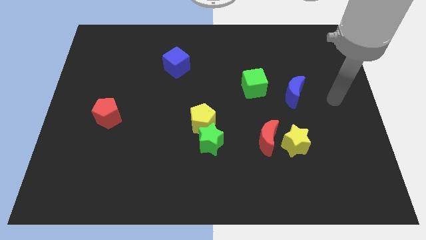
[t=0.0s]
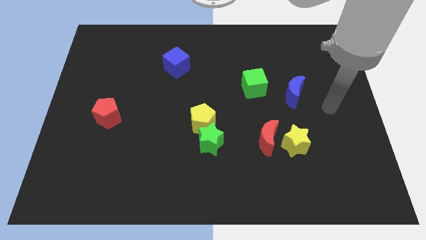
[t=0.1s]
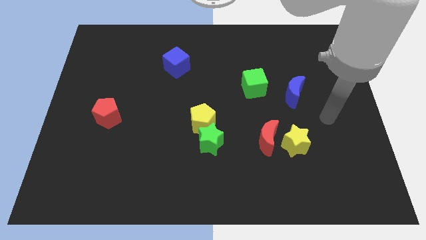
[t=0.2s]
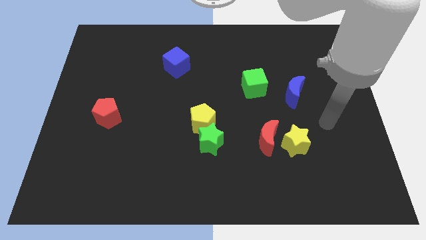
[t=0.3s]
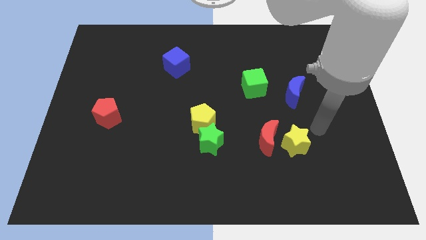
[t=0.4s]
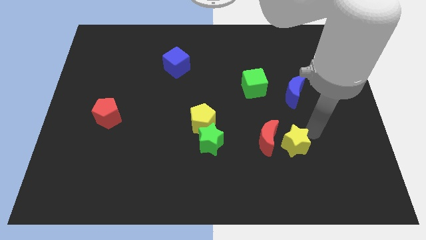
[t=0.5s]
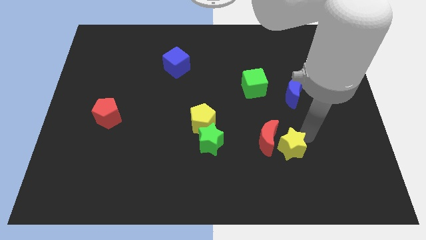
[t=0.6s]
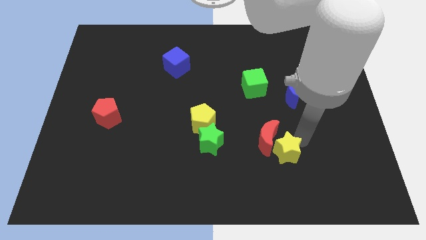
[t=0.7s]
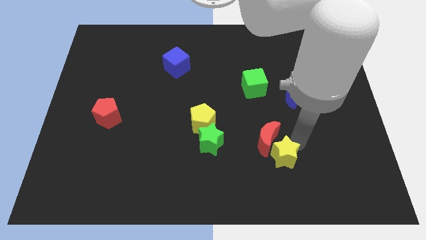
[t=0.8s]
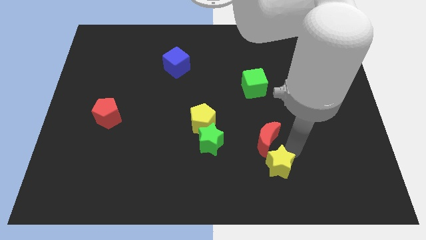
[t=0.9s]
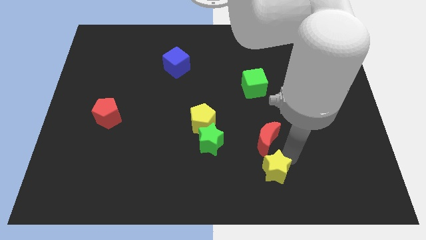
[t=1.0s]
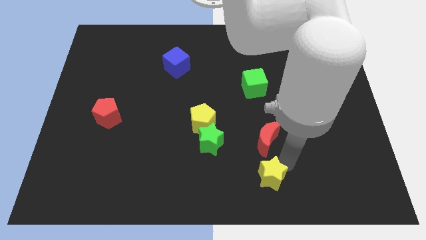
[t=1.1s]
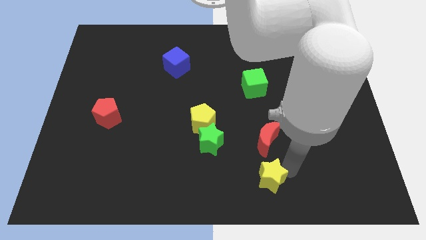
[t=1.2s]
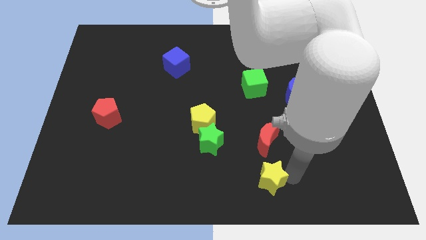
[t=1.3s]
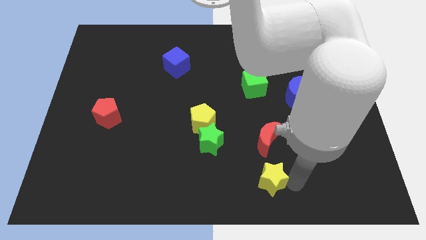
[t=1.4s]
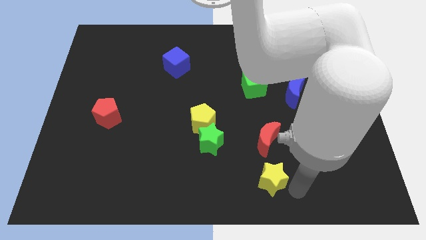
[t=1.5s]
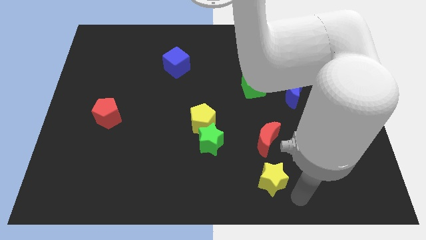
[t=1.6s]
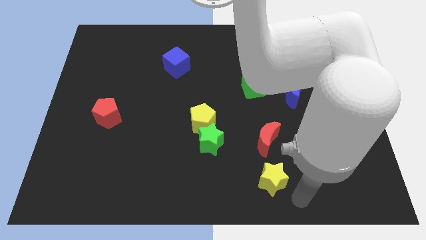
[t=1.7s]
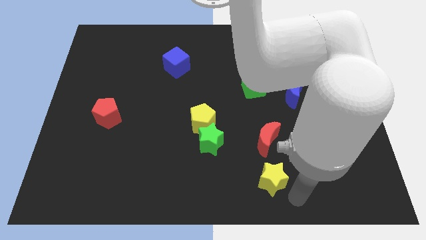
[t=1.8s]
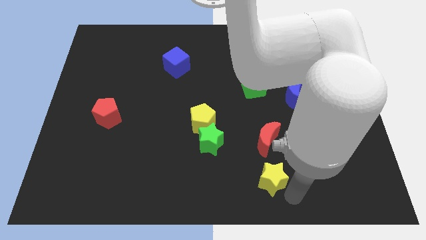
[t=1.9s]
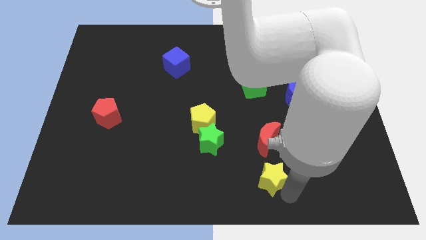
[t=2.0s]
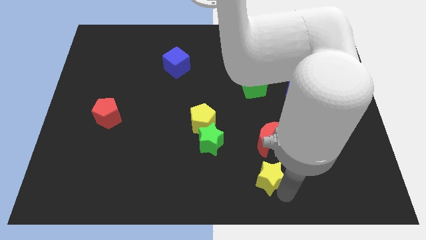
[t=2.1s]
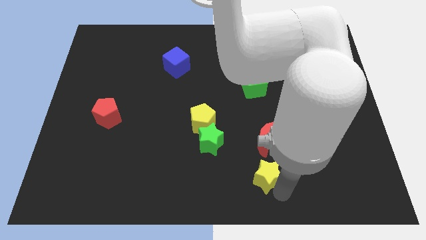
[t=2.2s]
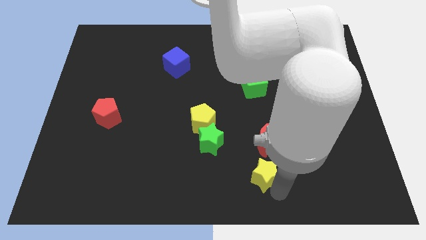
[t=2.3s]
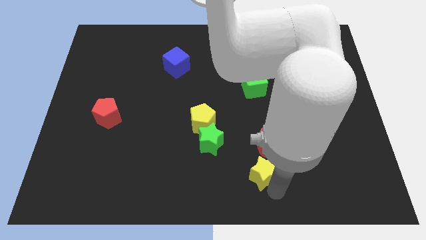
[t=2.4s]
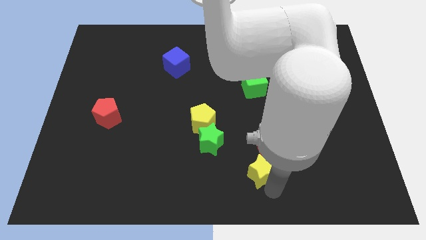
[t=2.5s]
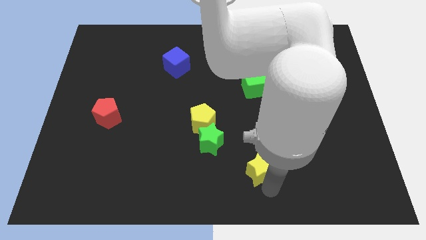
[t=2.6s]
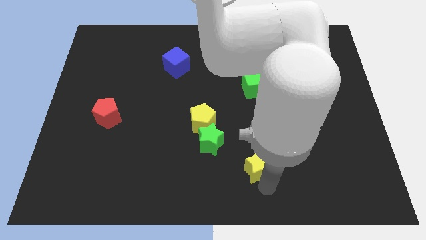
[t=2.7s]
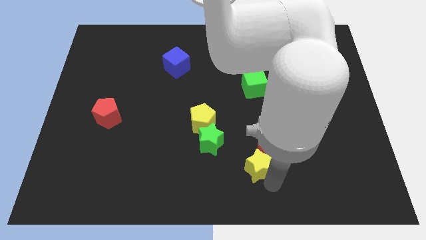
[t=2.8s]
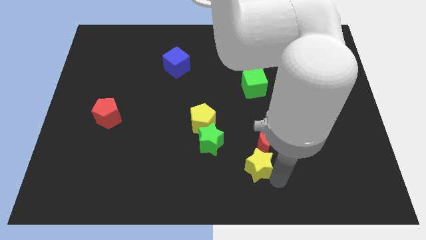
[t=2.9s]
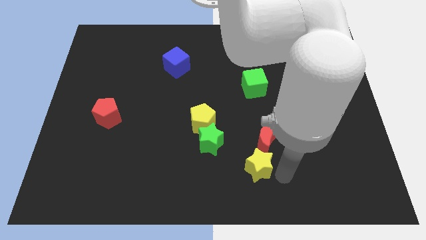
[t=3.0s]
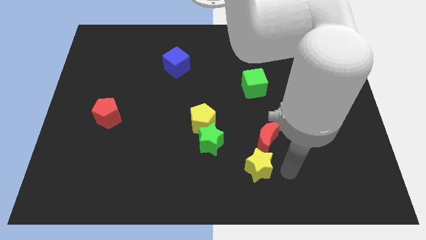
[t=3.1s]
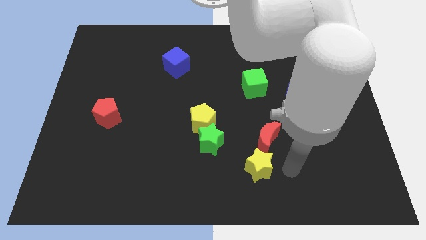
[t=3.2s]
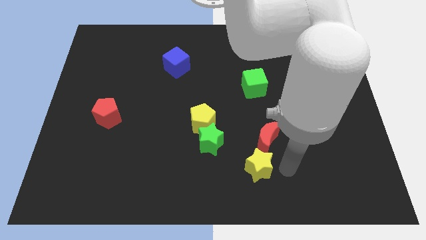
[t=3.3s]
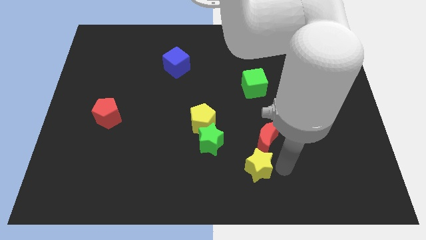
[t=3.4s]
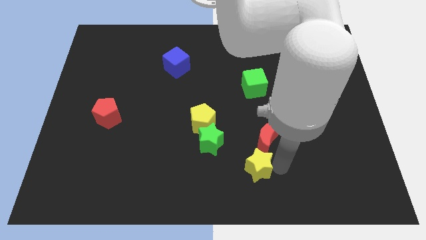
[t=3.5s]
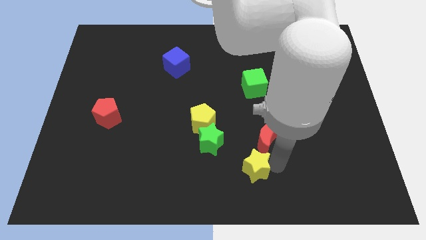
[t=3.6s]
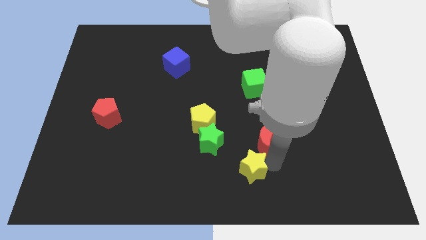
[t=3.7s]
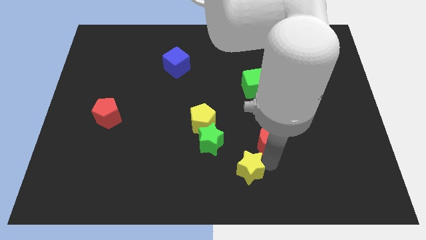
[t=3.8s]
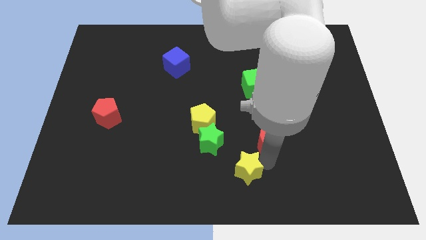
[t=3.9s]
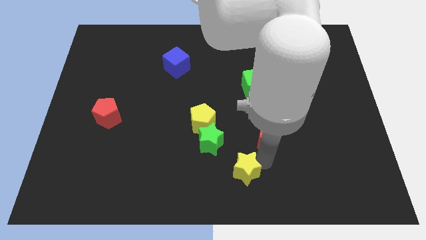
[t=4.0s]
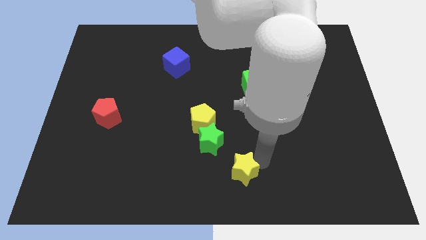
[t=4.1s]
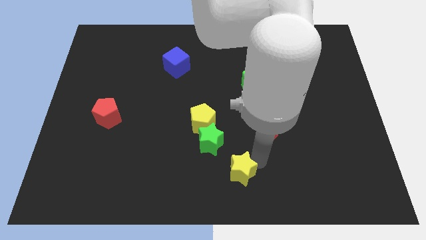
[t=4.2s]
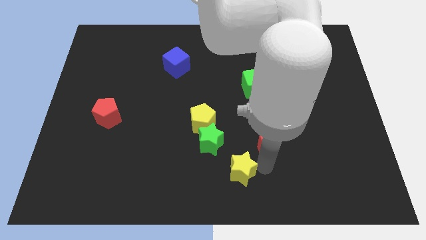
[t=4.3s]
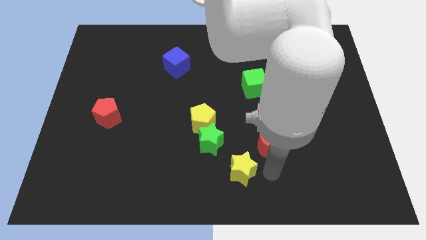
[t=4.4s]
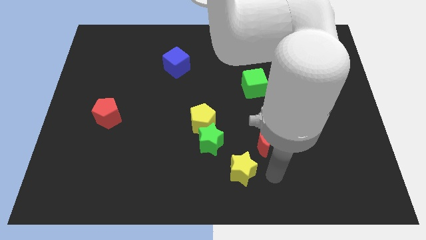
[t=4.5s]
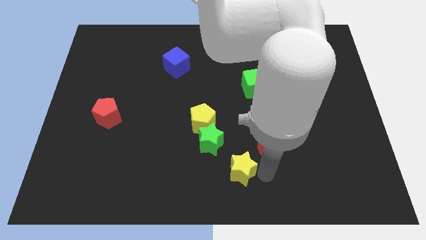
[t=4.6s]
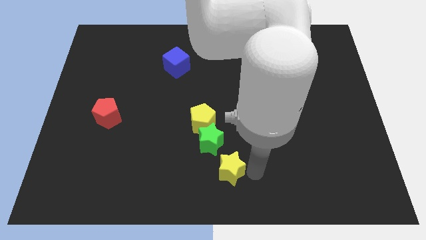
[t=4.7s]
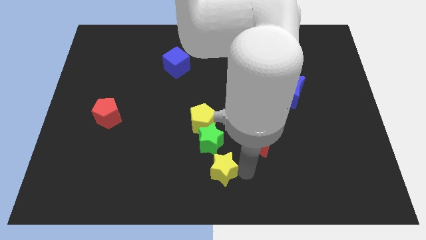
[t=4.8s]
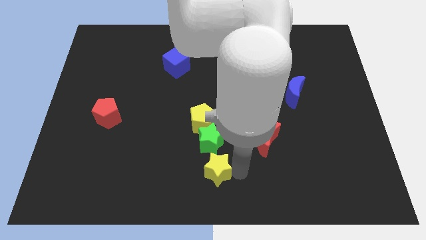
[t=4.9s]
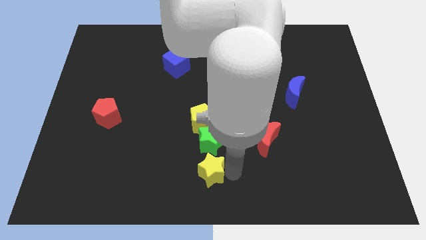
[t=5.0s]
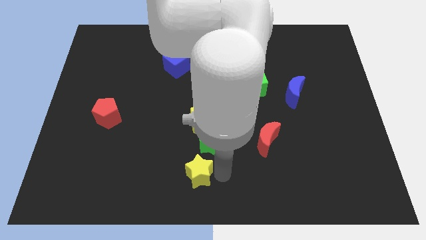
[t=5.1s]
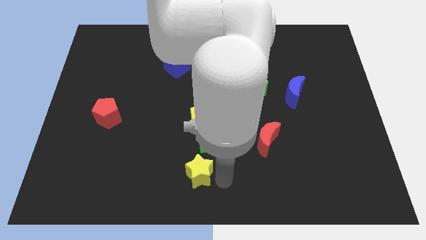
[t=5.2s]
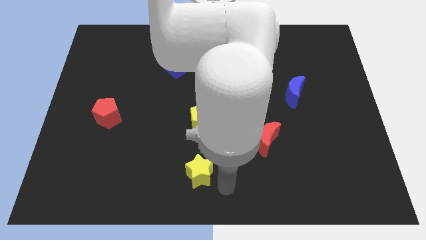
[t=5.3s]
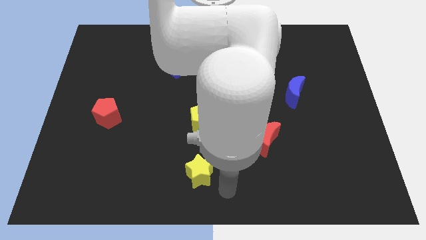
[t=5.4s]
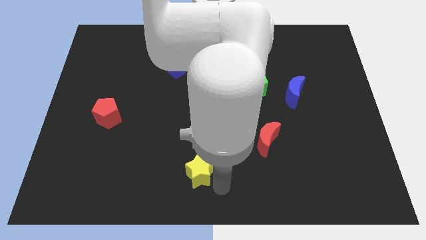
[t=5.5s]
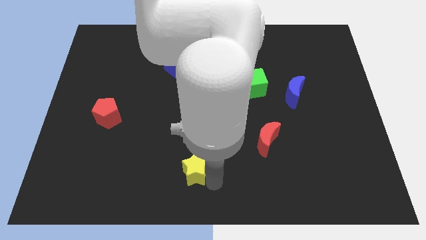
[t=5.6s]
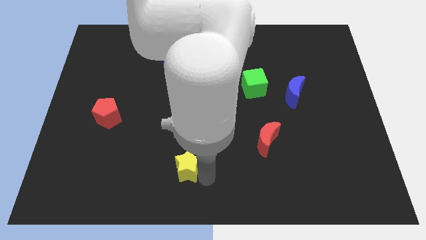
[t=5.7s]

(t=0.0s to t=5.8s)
slide the yellow star left

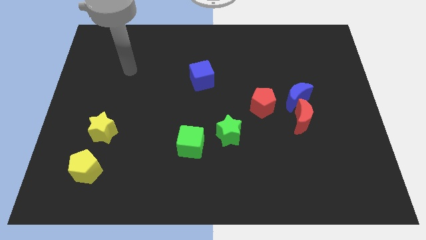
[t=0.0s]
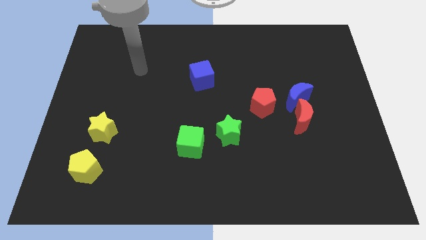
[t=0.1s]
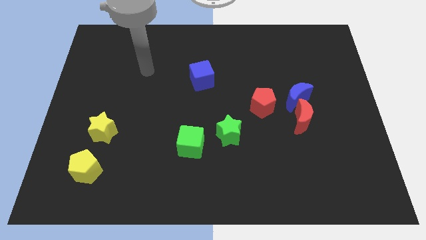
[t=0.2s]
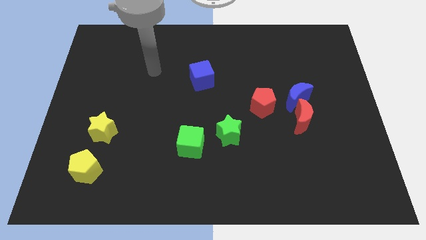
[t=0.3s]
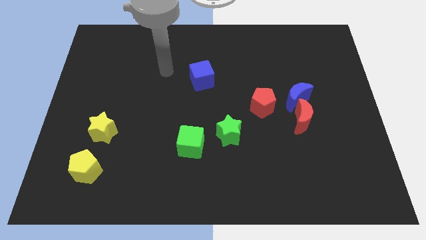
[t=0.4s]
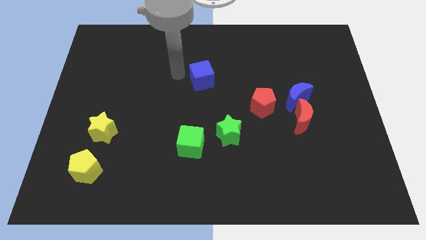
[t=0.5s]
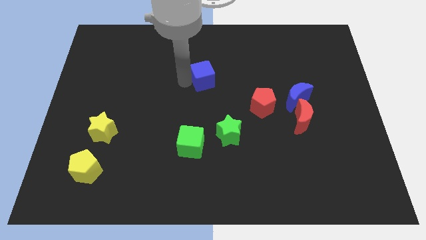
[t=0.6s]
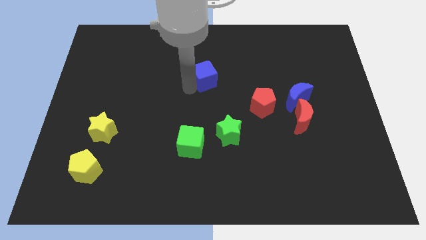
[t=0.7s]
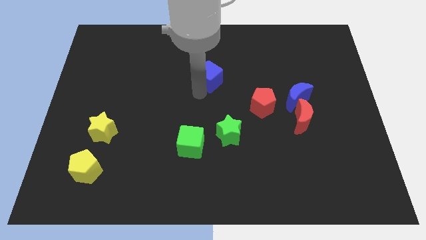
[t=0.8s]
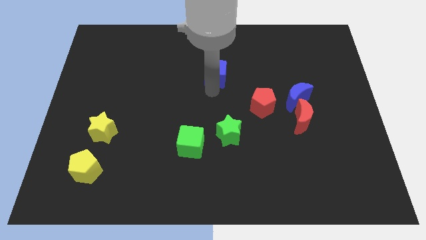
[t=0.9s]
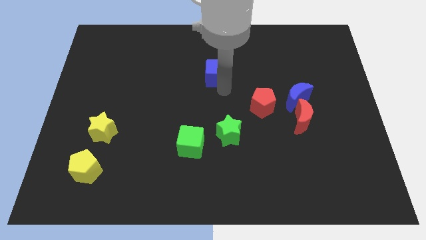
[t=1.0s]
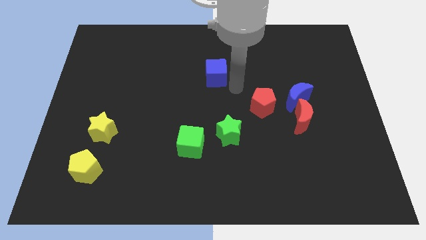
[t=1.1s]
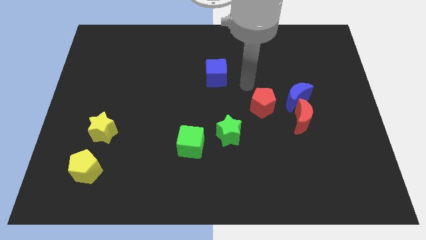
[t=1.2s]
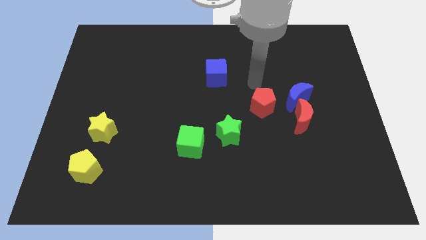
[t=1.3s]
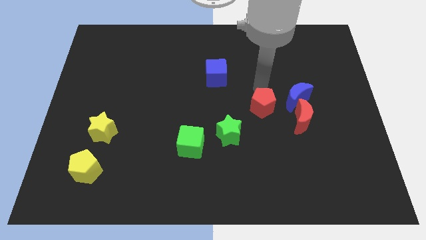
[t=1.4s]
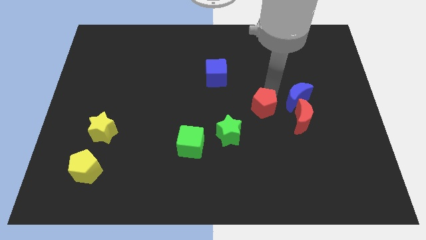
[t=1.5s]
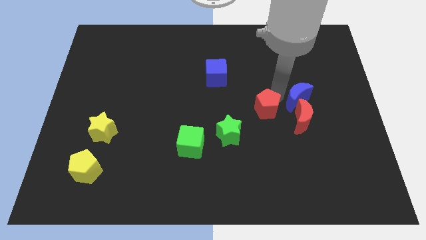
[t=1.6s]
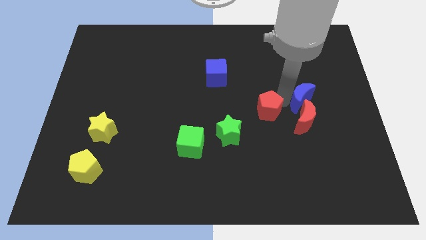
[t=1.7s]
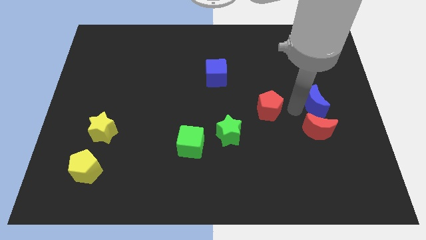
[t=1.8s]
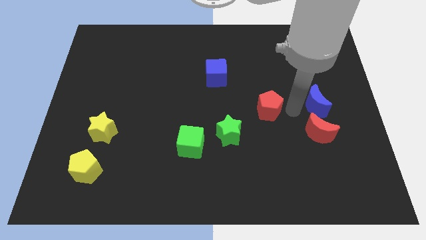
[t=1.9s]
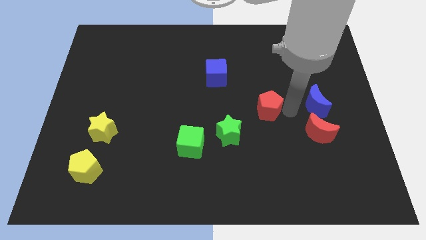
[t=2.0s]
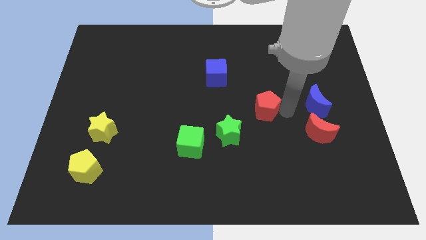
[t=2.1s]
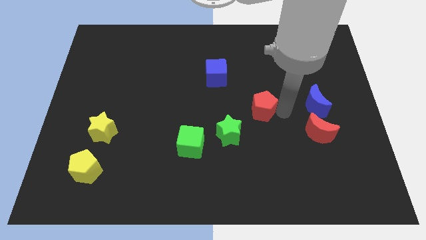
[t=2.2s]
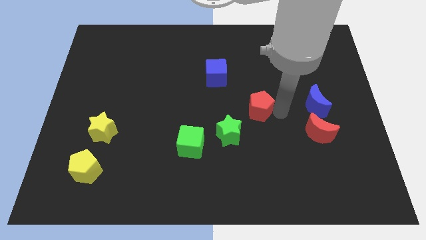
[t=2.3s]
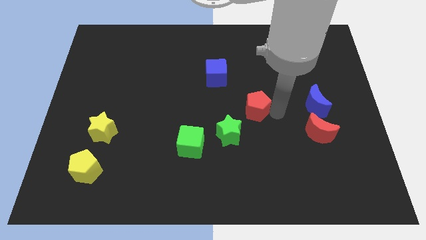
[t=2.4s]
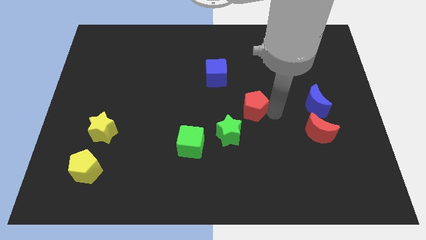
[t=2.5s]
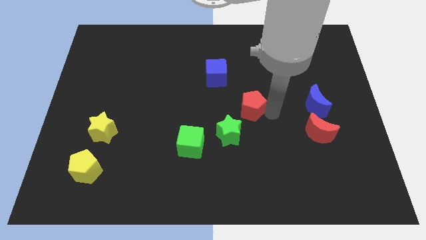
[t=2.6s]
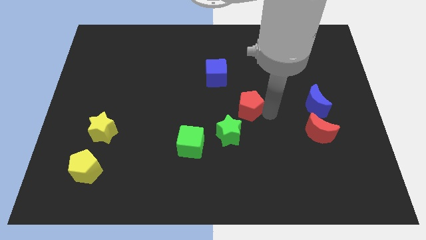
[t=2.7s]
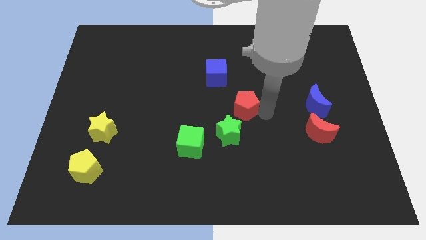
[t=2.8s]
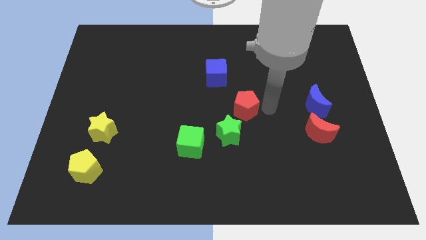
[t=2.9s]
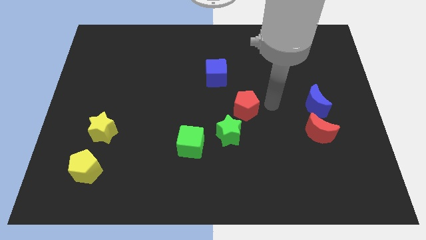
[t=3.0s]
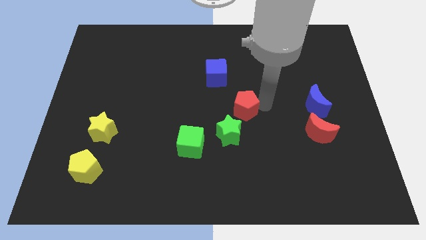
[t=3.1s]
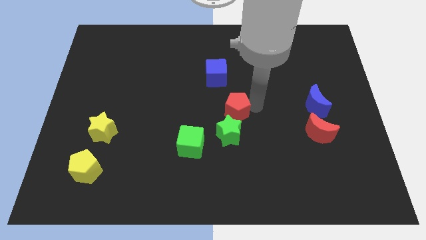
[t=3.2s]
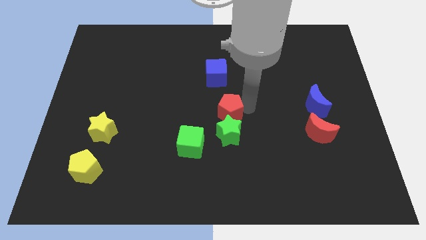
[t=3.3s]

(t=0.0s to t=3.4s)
push the red pentagon a little bit left
